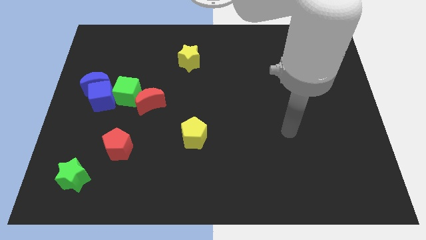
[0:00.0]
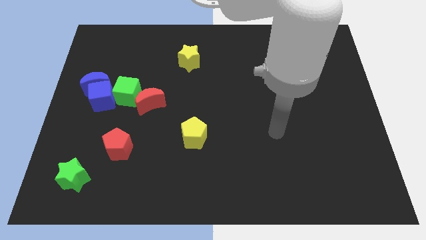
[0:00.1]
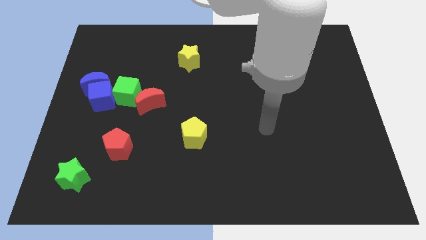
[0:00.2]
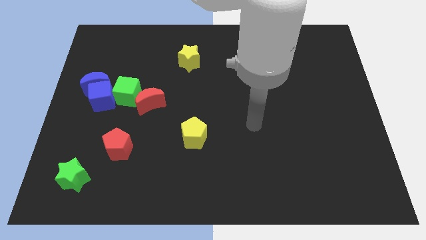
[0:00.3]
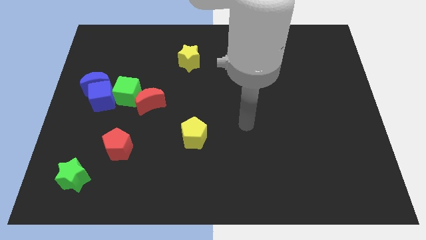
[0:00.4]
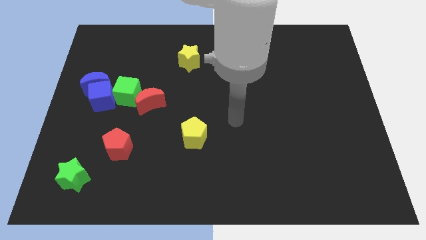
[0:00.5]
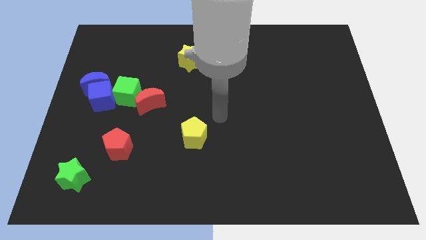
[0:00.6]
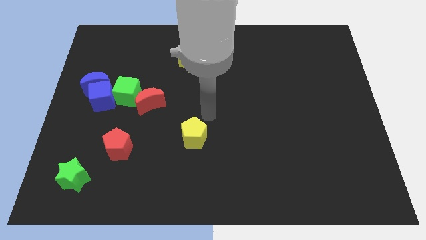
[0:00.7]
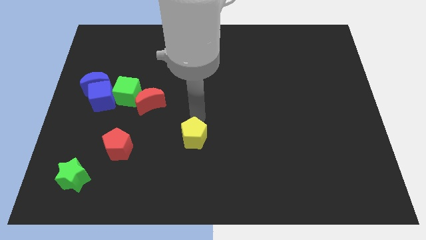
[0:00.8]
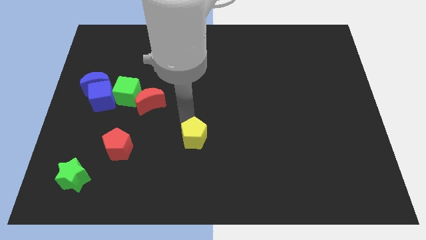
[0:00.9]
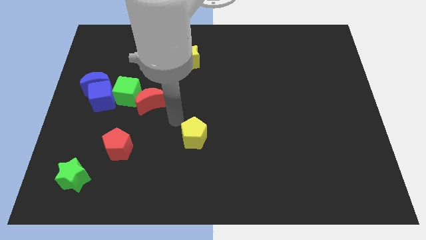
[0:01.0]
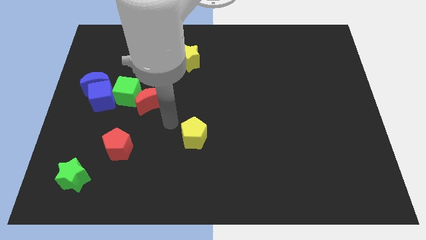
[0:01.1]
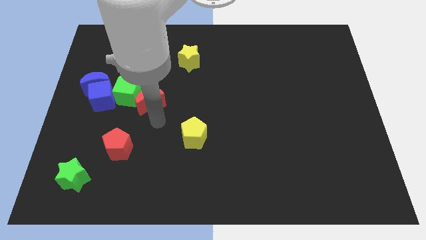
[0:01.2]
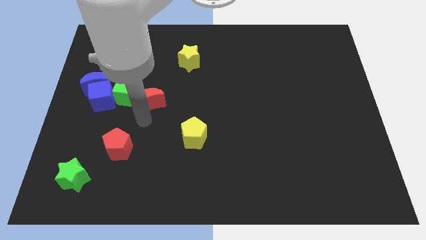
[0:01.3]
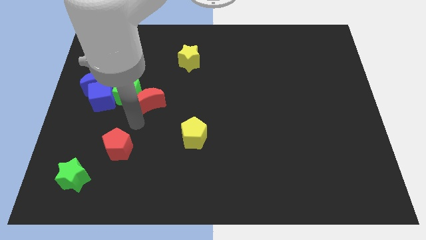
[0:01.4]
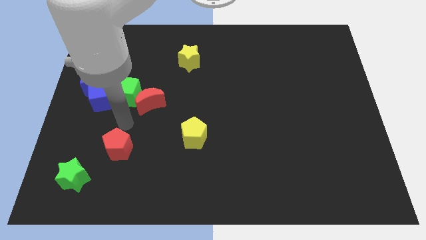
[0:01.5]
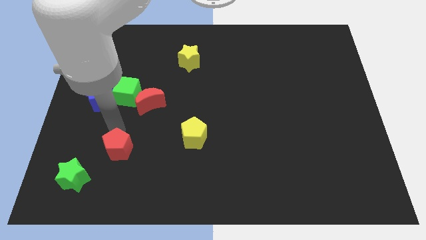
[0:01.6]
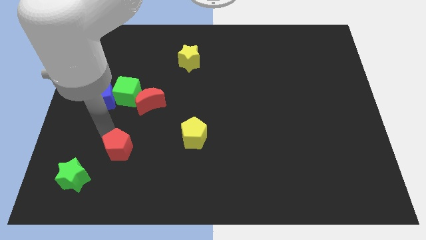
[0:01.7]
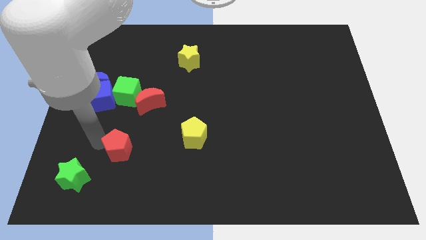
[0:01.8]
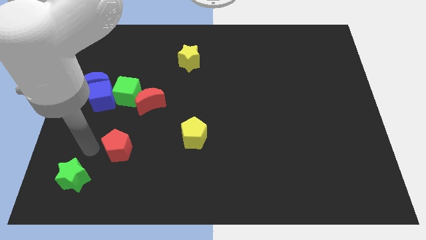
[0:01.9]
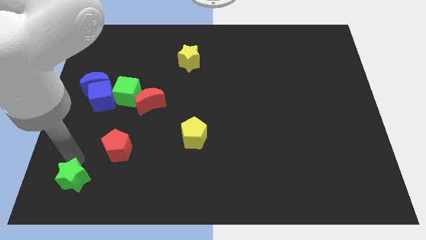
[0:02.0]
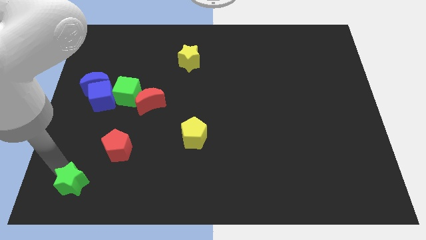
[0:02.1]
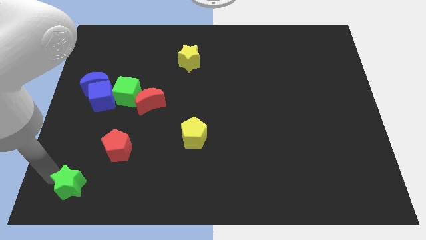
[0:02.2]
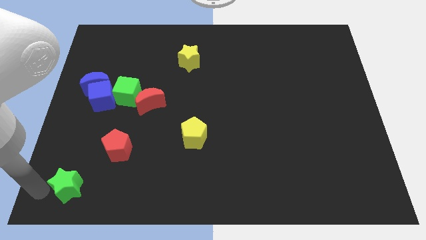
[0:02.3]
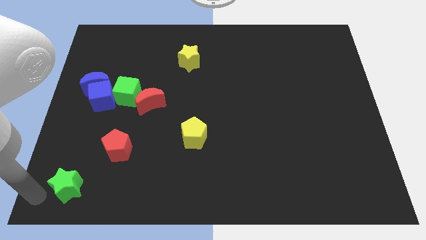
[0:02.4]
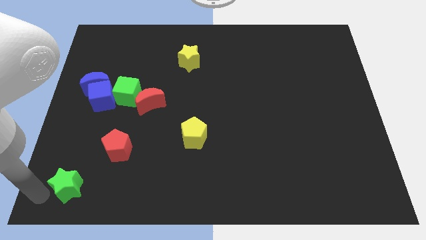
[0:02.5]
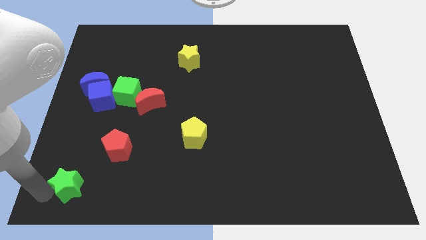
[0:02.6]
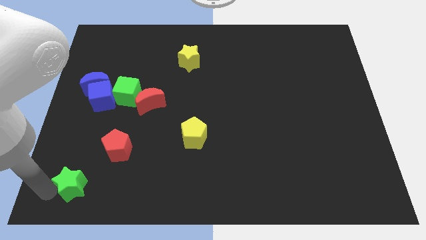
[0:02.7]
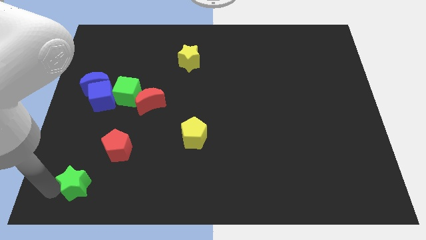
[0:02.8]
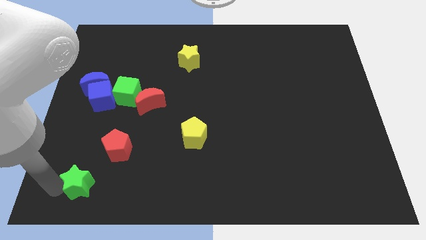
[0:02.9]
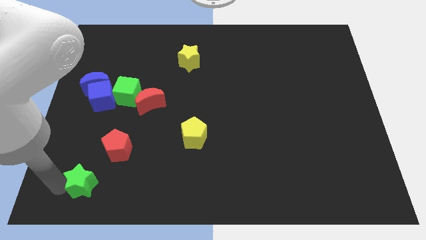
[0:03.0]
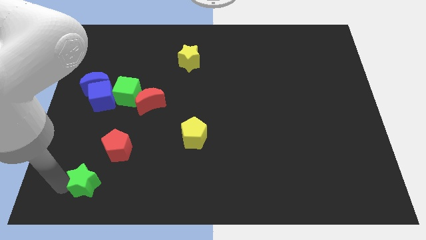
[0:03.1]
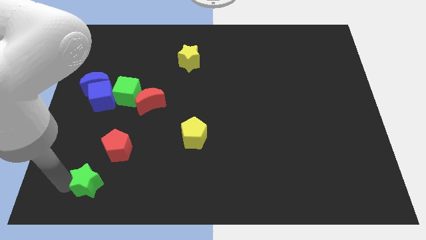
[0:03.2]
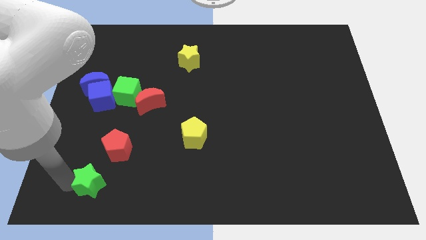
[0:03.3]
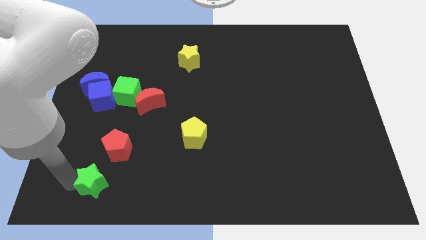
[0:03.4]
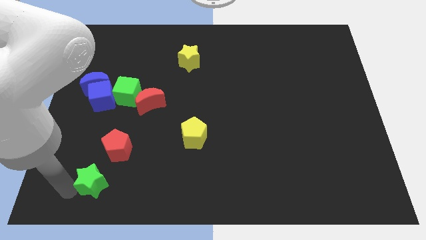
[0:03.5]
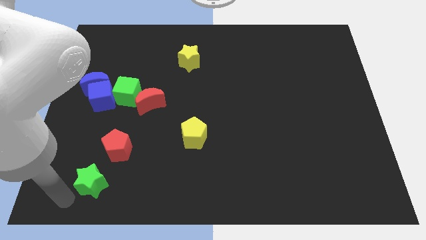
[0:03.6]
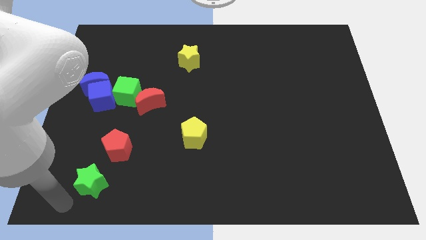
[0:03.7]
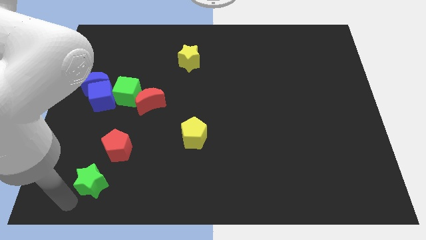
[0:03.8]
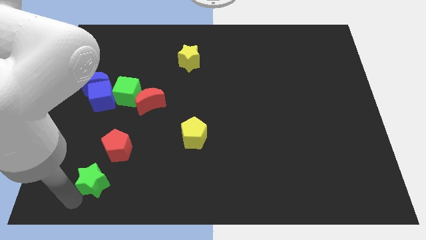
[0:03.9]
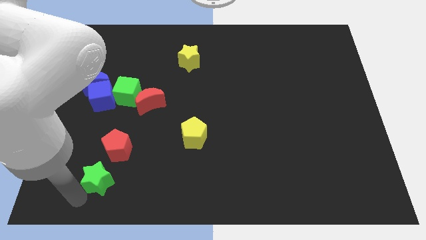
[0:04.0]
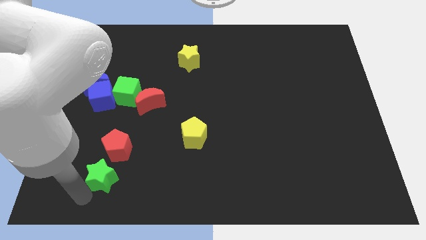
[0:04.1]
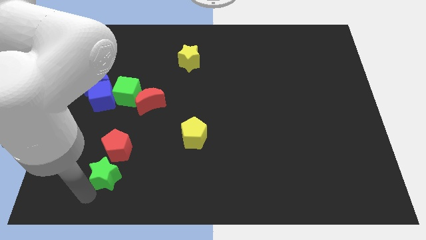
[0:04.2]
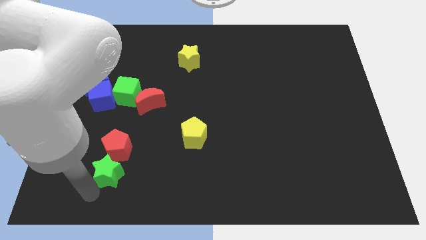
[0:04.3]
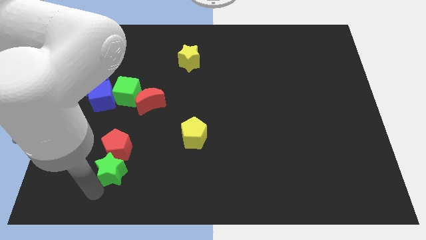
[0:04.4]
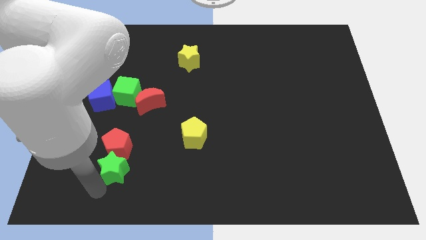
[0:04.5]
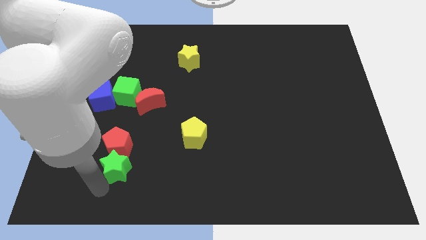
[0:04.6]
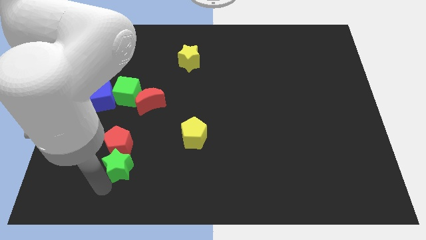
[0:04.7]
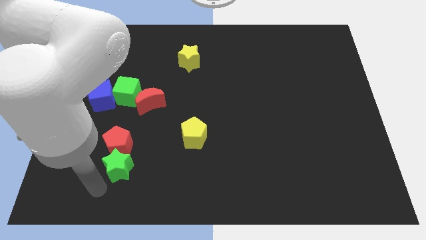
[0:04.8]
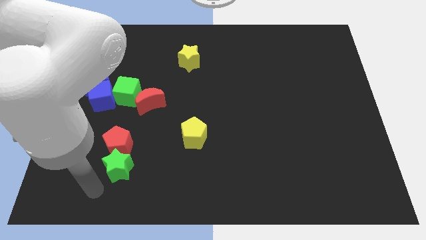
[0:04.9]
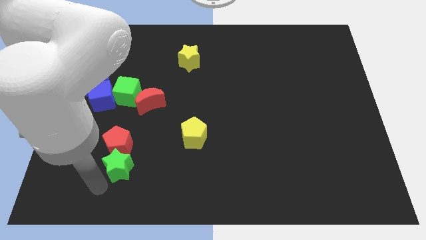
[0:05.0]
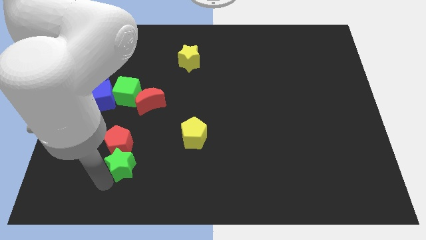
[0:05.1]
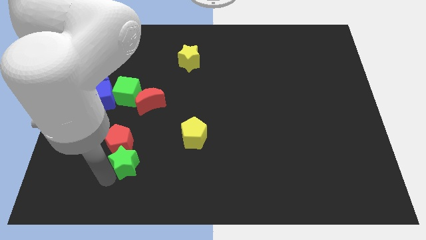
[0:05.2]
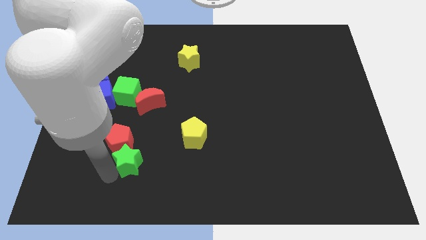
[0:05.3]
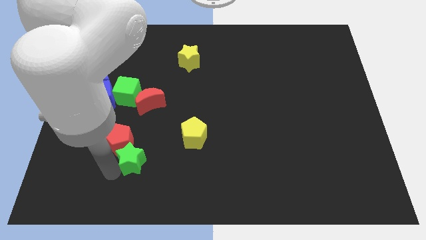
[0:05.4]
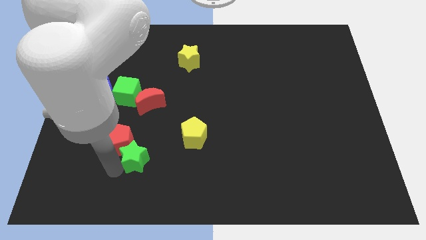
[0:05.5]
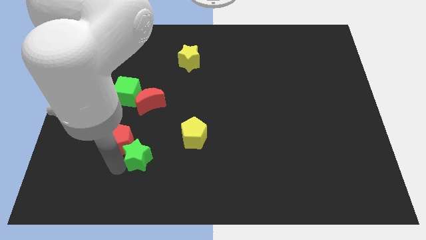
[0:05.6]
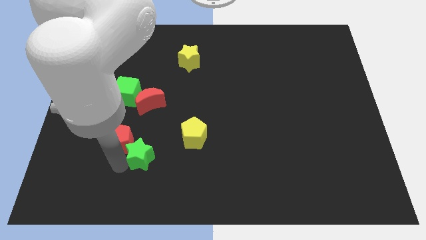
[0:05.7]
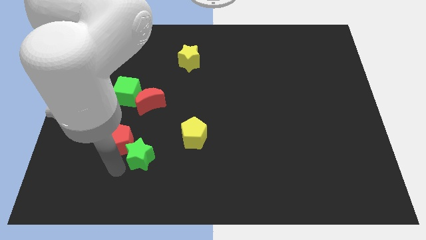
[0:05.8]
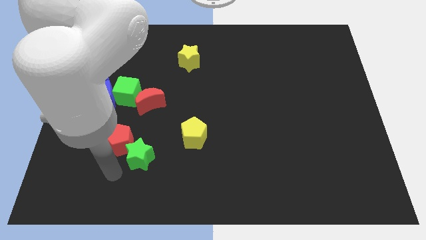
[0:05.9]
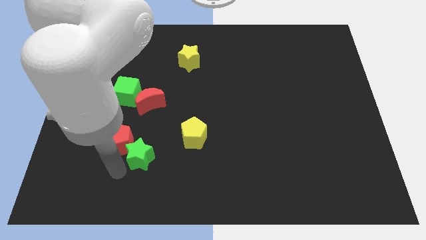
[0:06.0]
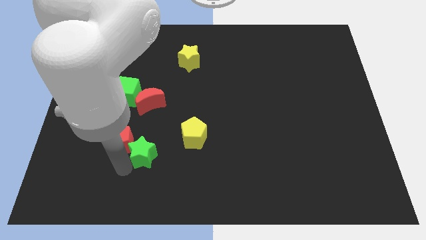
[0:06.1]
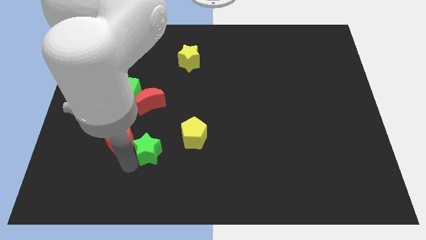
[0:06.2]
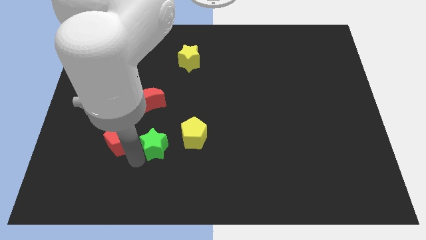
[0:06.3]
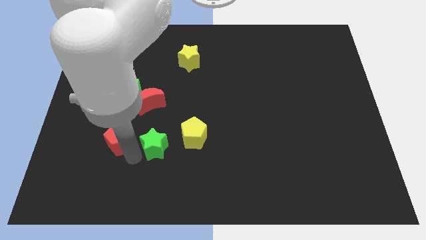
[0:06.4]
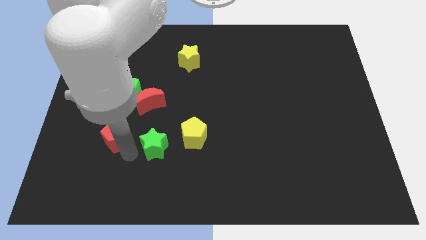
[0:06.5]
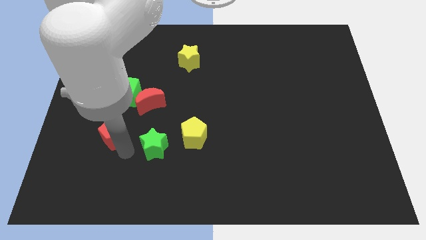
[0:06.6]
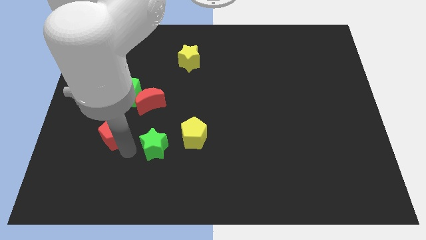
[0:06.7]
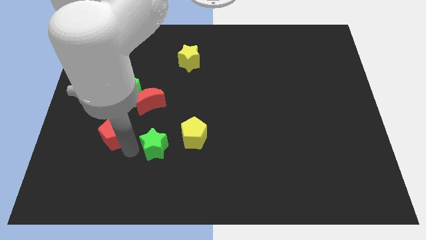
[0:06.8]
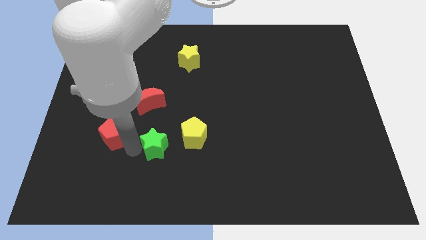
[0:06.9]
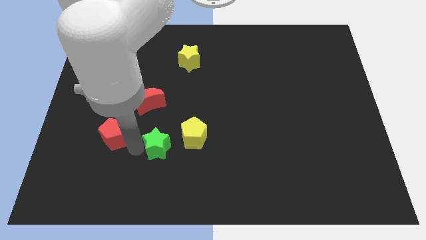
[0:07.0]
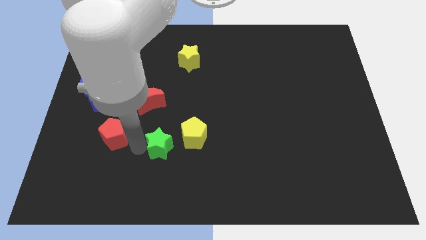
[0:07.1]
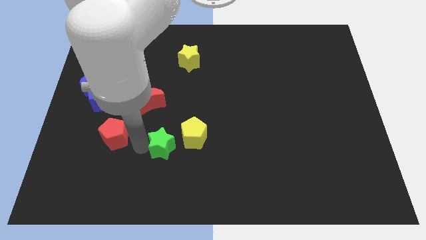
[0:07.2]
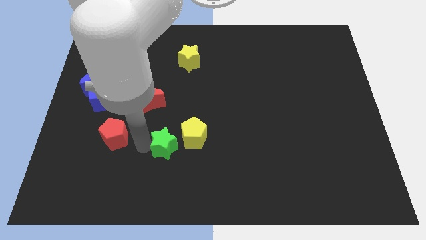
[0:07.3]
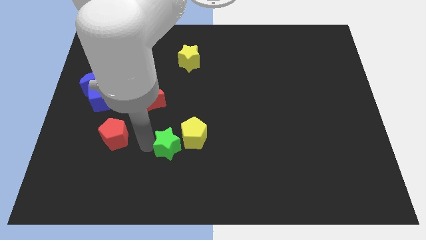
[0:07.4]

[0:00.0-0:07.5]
put the green star towards the yellow pentagon

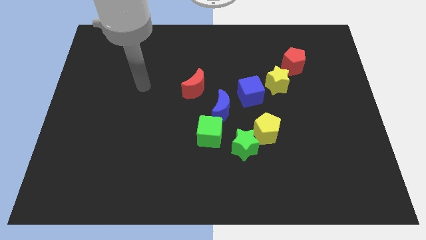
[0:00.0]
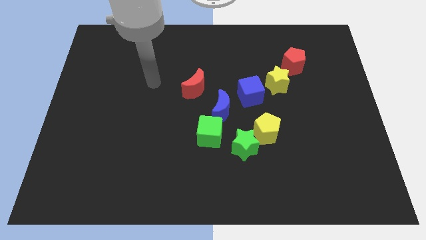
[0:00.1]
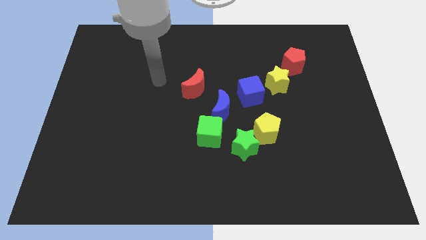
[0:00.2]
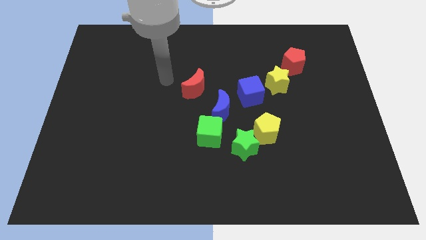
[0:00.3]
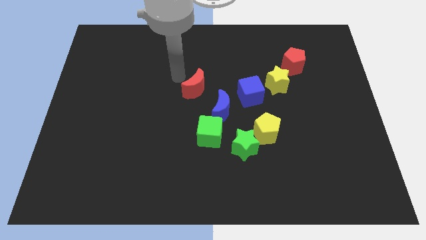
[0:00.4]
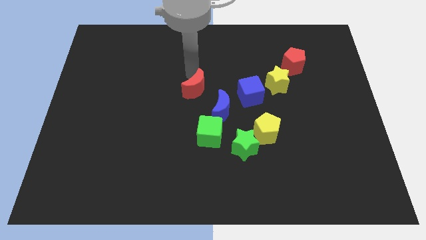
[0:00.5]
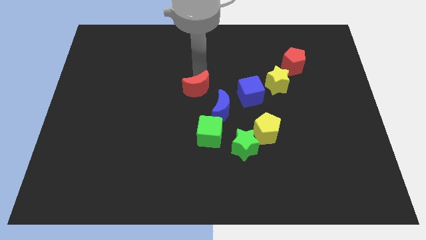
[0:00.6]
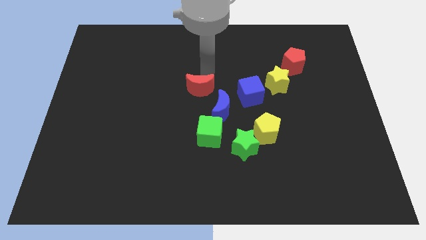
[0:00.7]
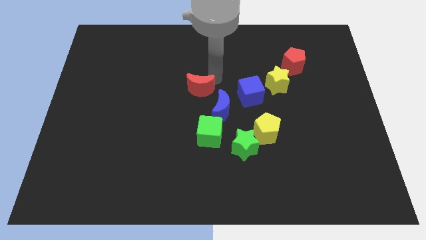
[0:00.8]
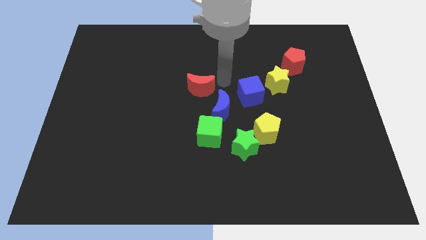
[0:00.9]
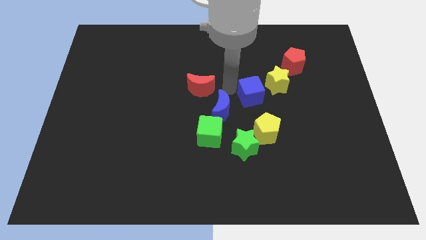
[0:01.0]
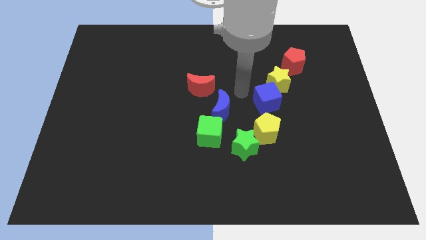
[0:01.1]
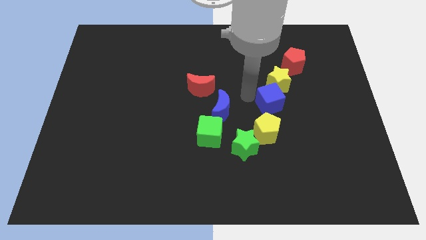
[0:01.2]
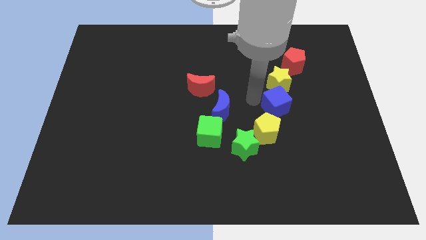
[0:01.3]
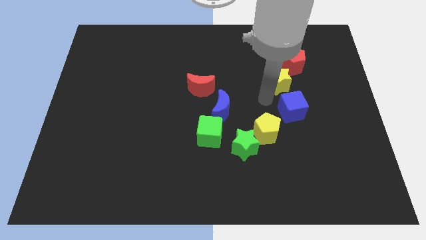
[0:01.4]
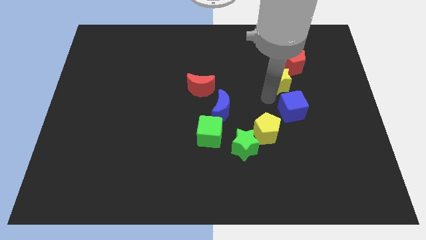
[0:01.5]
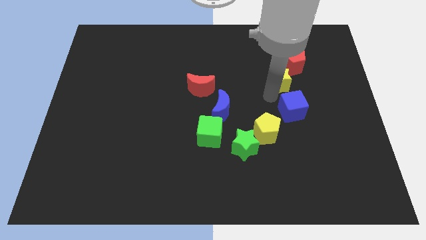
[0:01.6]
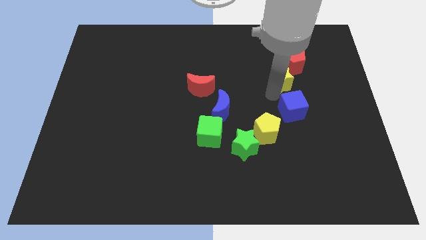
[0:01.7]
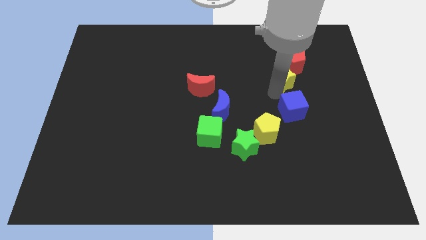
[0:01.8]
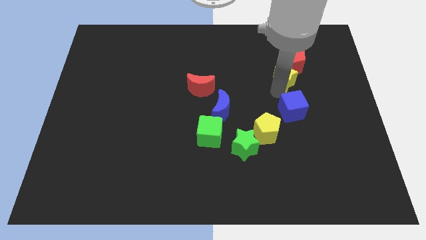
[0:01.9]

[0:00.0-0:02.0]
slide the yellow star towards the red pentagon
